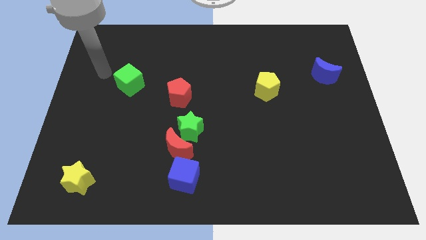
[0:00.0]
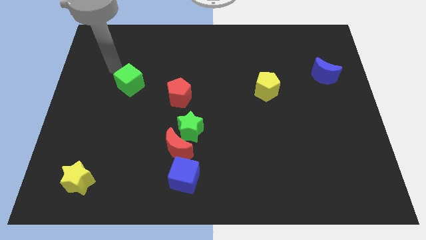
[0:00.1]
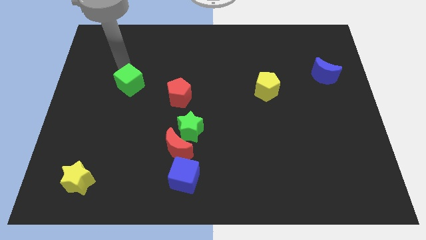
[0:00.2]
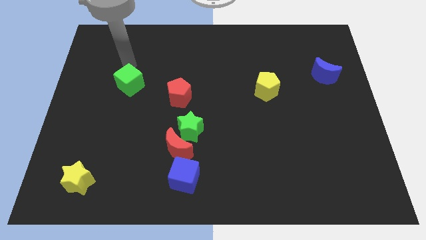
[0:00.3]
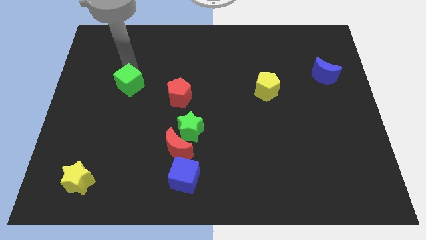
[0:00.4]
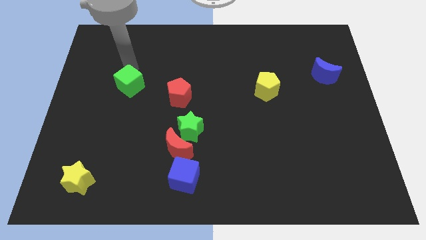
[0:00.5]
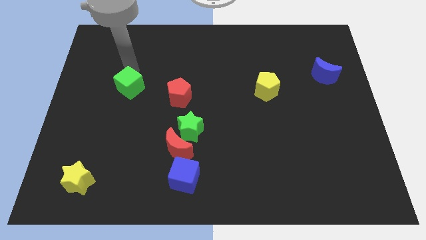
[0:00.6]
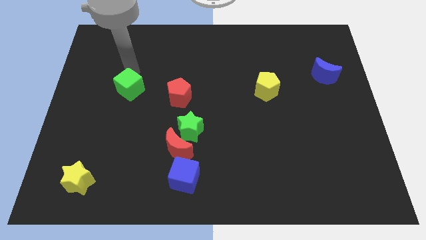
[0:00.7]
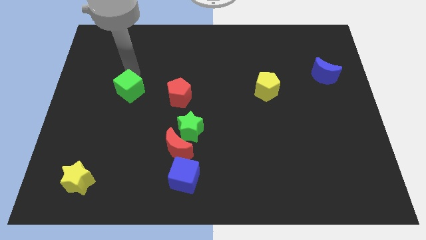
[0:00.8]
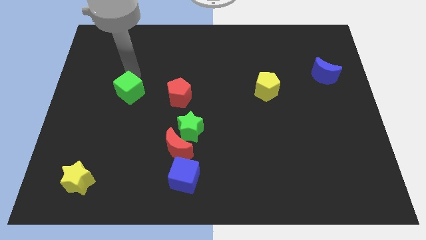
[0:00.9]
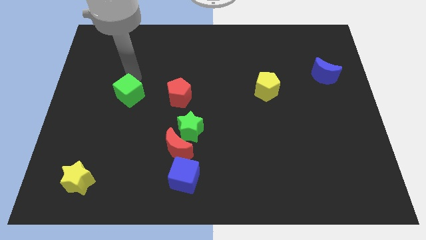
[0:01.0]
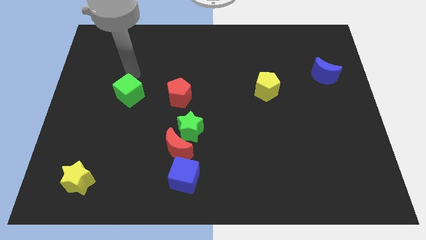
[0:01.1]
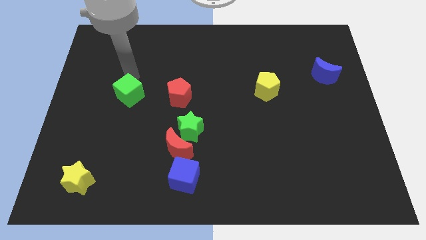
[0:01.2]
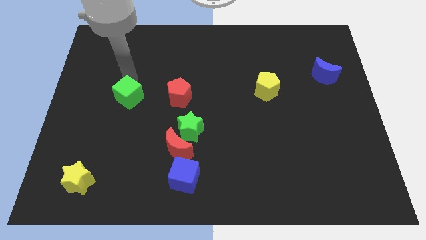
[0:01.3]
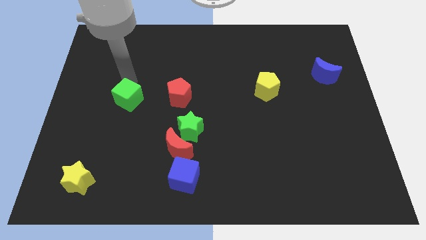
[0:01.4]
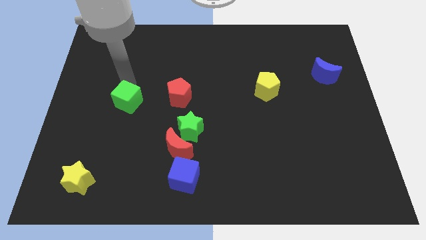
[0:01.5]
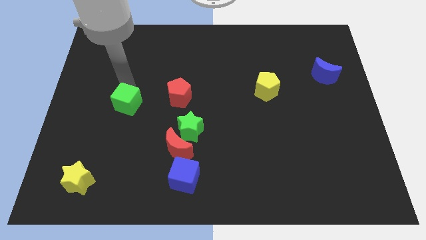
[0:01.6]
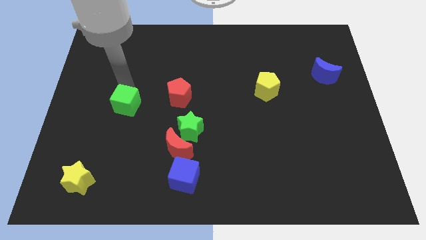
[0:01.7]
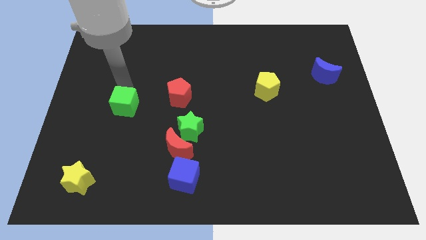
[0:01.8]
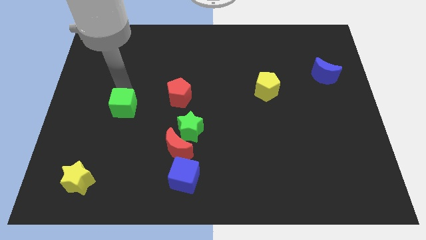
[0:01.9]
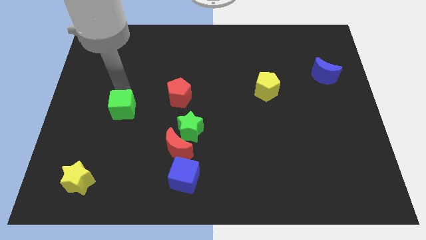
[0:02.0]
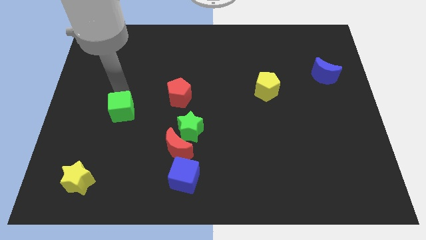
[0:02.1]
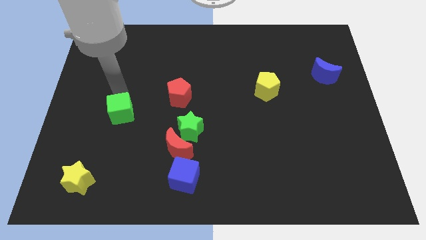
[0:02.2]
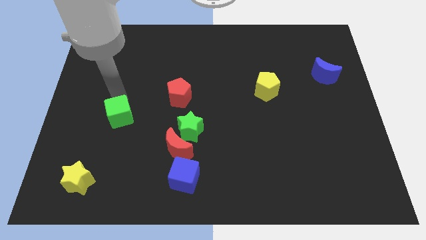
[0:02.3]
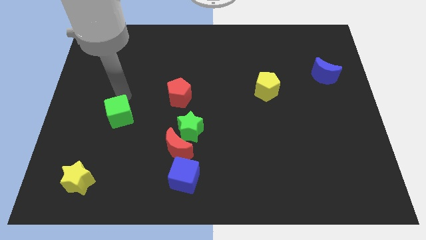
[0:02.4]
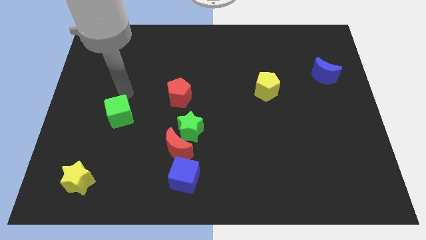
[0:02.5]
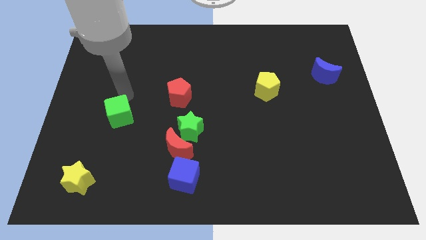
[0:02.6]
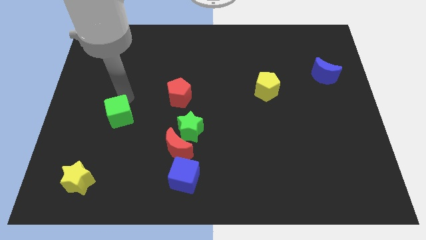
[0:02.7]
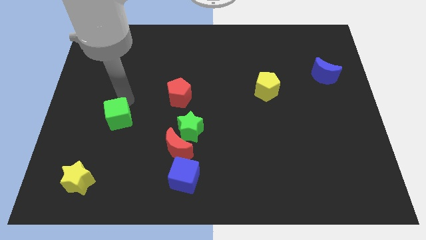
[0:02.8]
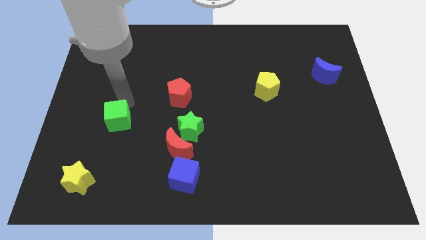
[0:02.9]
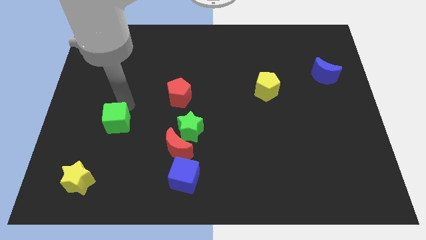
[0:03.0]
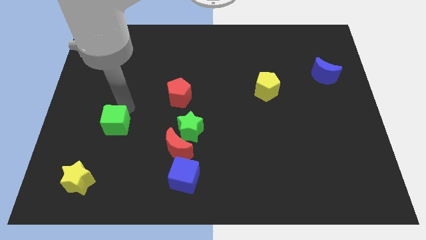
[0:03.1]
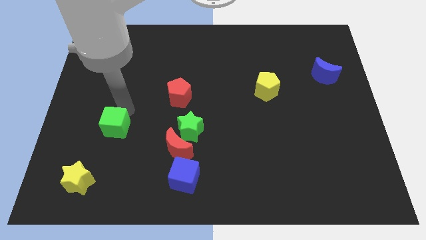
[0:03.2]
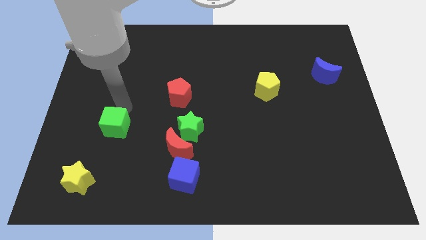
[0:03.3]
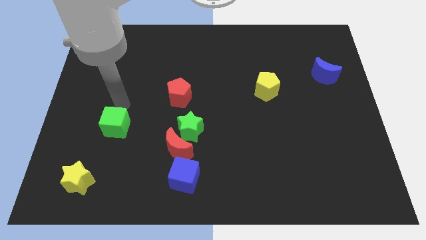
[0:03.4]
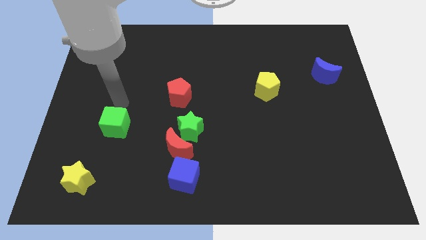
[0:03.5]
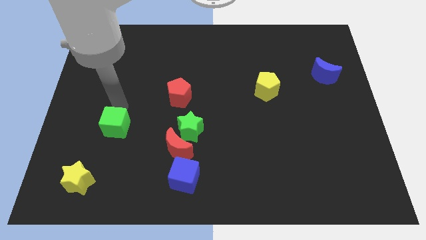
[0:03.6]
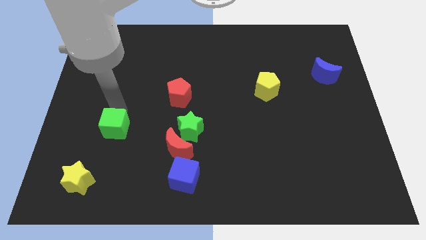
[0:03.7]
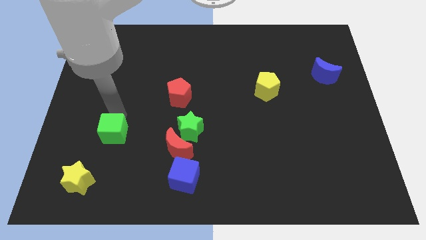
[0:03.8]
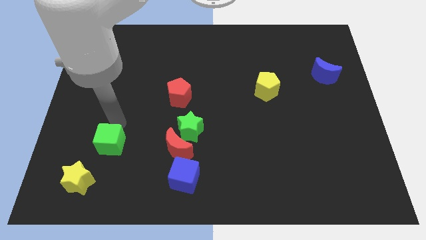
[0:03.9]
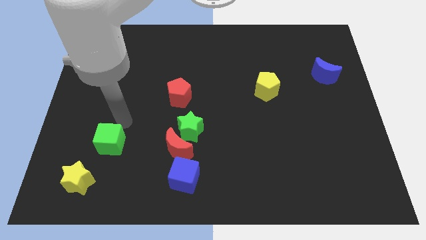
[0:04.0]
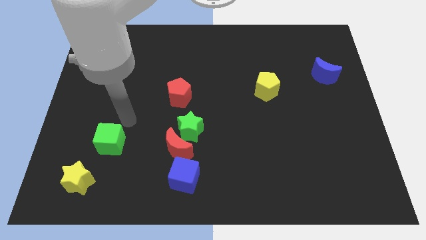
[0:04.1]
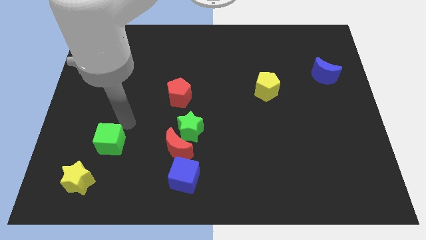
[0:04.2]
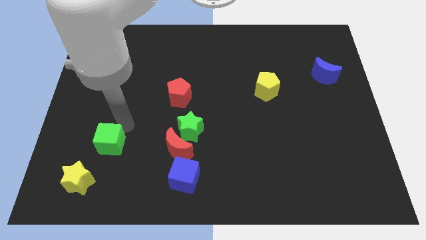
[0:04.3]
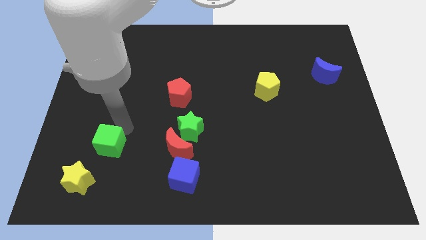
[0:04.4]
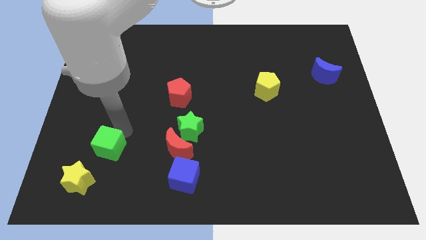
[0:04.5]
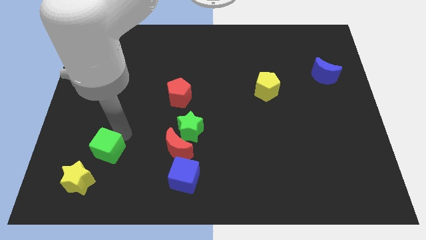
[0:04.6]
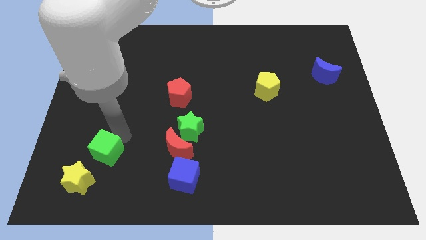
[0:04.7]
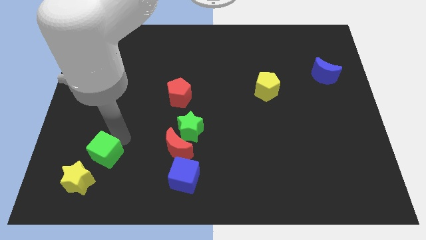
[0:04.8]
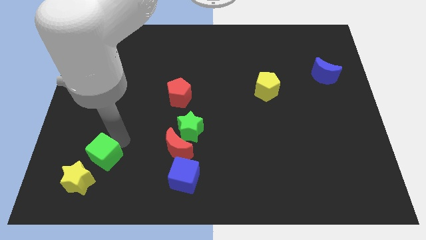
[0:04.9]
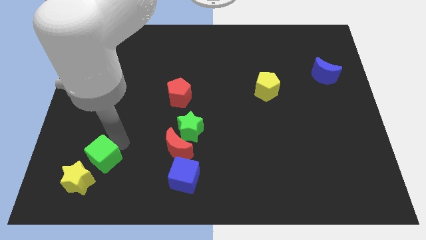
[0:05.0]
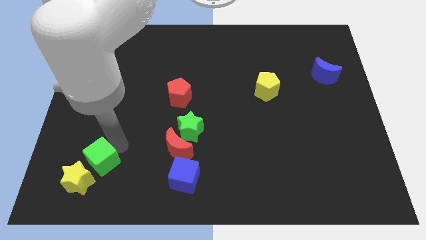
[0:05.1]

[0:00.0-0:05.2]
move the green cube close to the yellow star

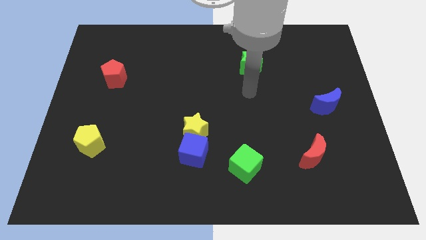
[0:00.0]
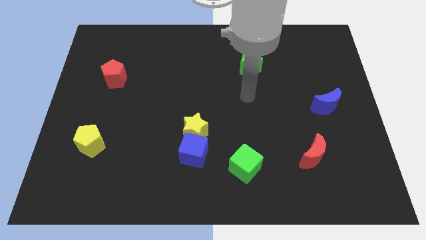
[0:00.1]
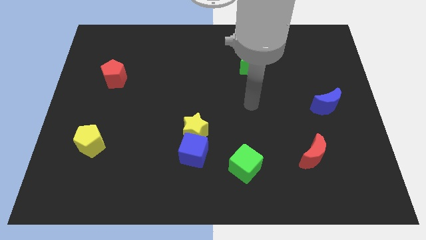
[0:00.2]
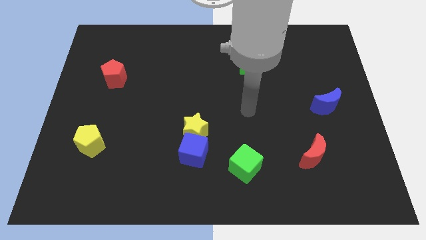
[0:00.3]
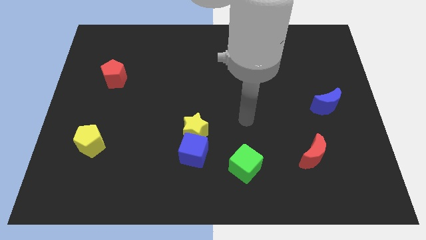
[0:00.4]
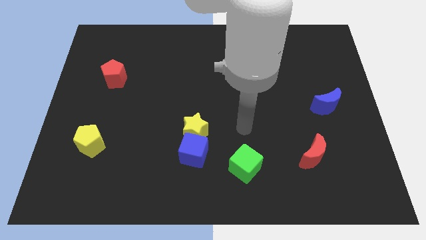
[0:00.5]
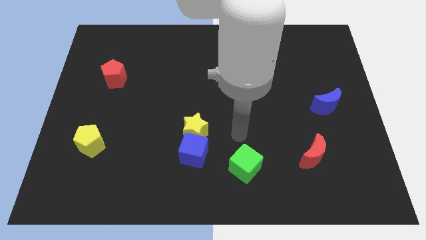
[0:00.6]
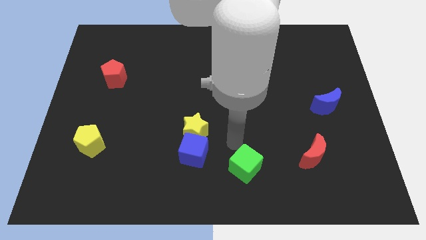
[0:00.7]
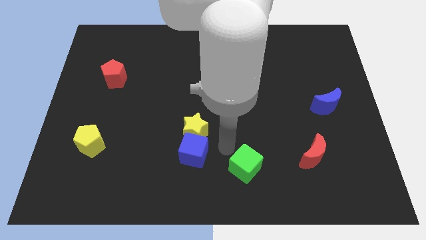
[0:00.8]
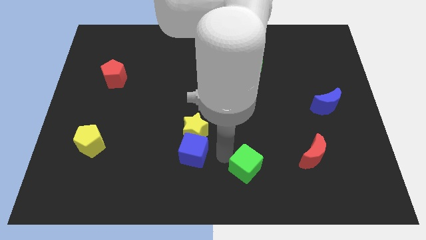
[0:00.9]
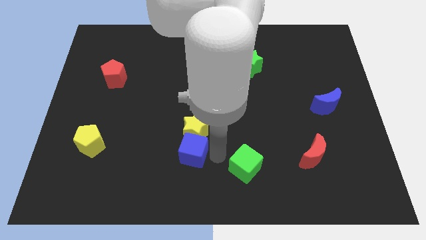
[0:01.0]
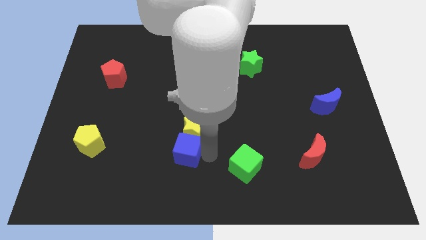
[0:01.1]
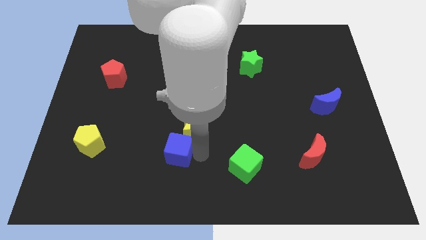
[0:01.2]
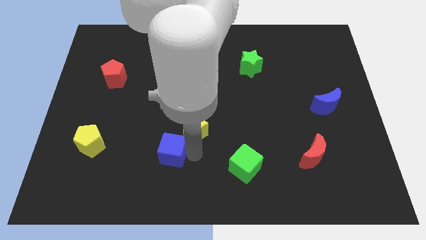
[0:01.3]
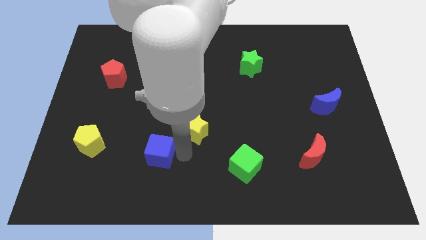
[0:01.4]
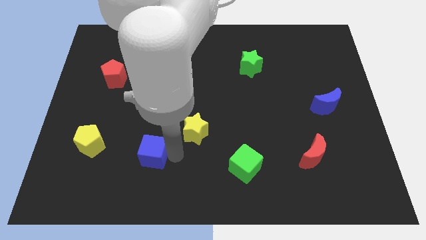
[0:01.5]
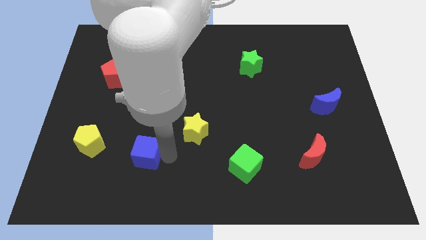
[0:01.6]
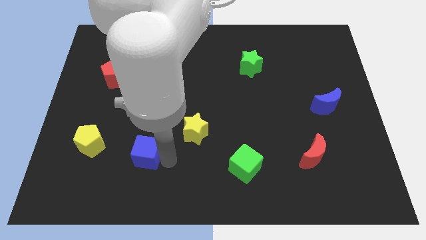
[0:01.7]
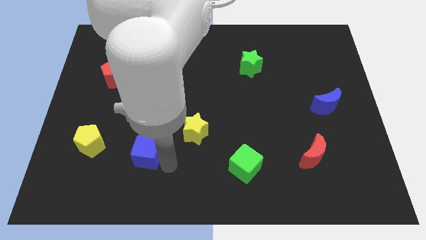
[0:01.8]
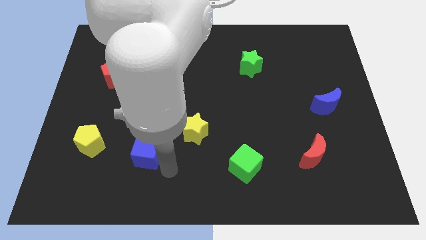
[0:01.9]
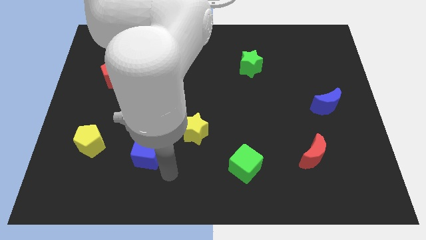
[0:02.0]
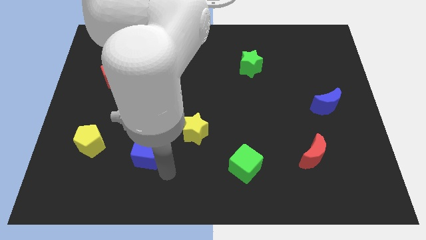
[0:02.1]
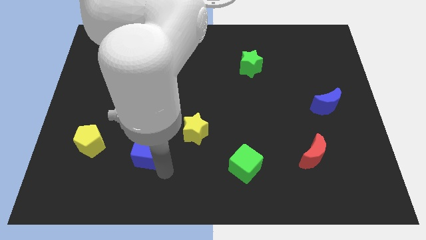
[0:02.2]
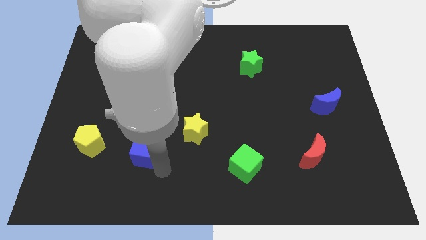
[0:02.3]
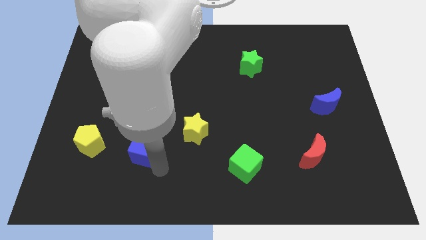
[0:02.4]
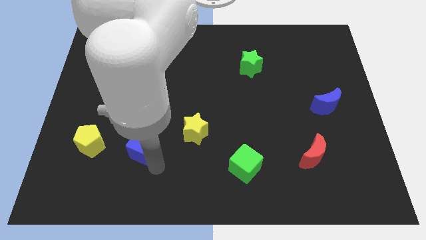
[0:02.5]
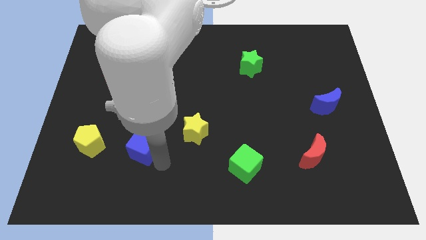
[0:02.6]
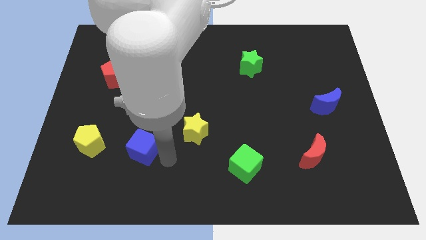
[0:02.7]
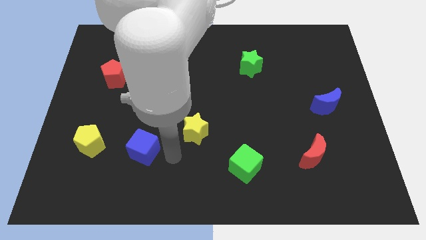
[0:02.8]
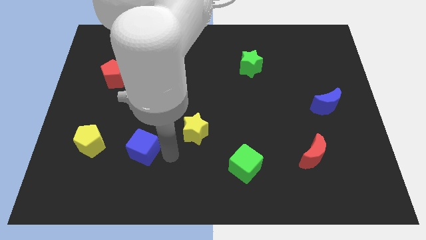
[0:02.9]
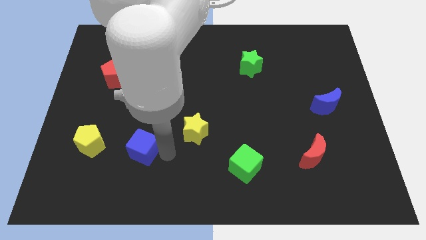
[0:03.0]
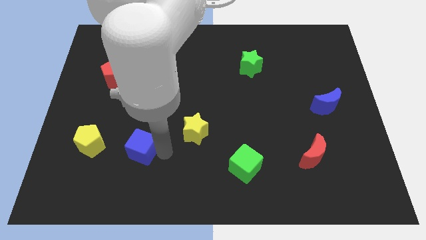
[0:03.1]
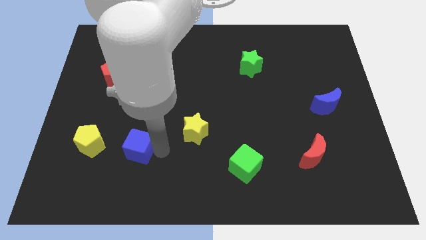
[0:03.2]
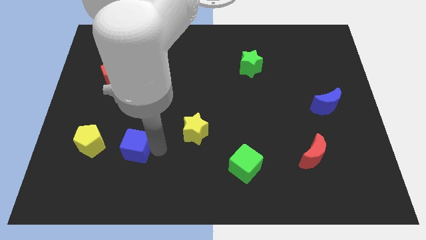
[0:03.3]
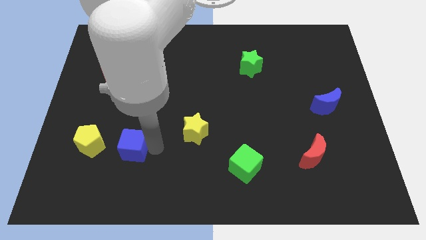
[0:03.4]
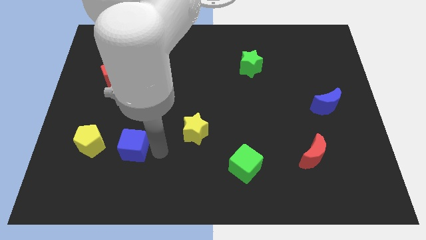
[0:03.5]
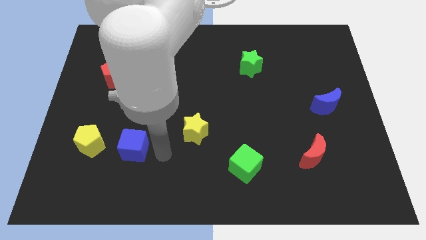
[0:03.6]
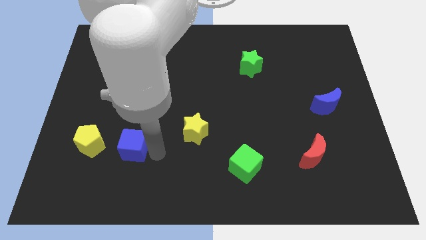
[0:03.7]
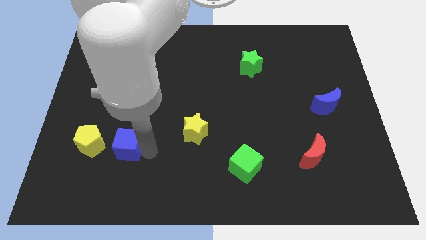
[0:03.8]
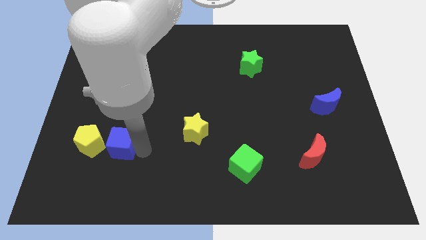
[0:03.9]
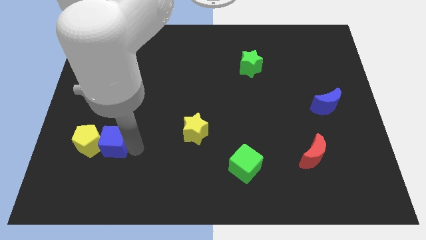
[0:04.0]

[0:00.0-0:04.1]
push the blue cube to the yellow pentagon
